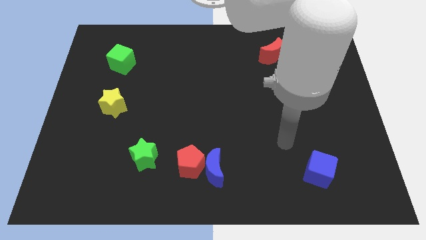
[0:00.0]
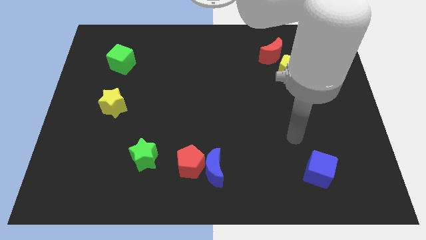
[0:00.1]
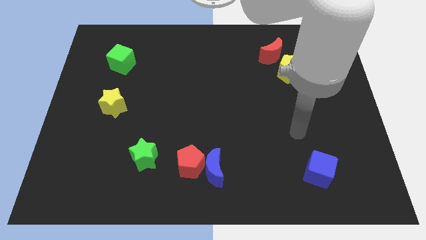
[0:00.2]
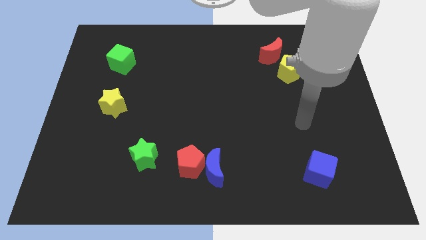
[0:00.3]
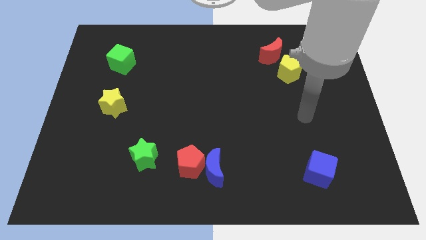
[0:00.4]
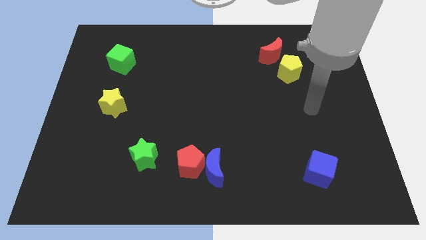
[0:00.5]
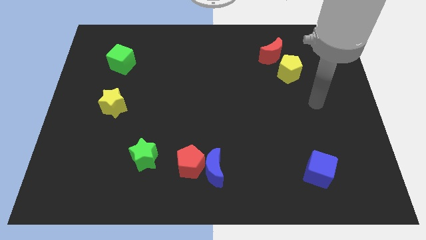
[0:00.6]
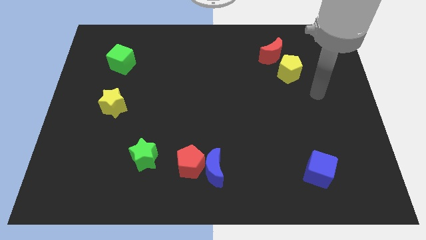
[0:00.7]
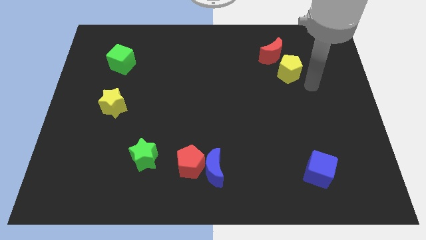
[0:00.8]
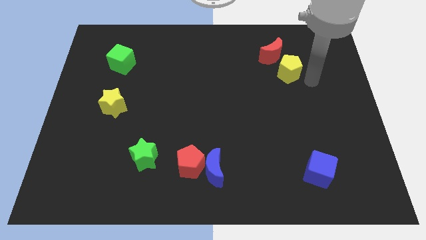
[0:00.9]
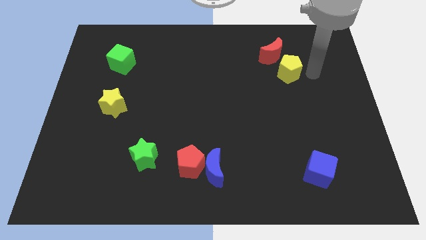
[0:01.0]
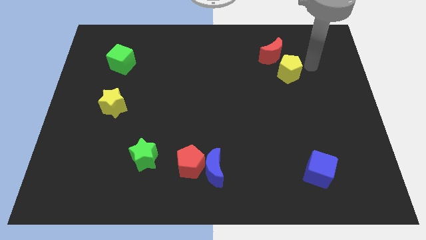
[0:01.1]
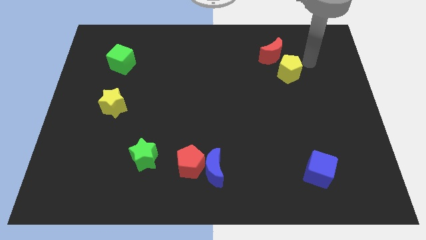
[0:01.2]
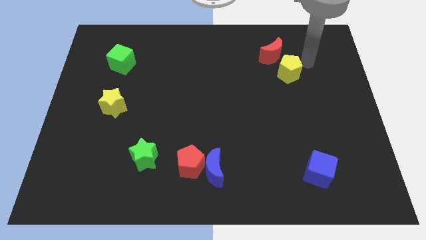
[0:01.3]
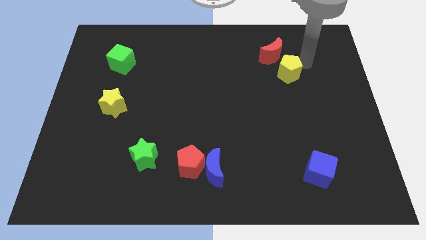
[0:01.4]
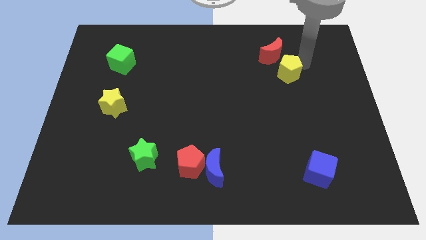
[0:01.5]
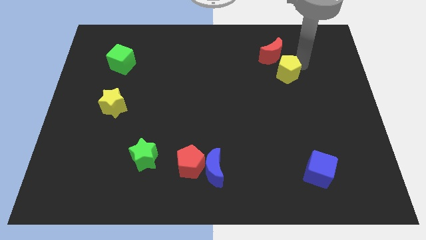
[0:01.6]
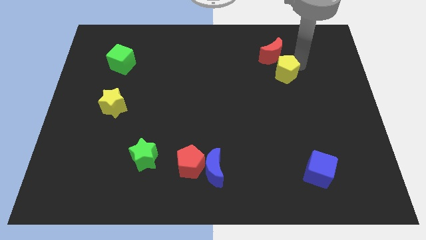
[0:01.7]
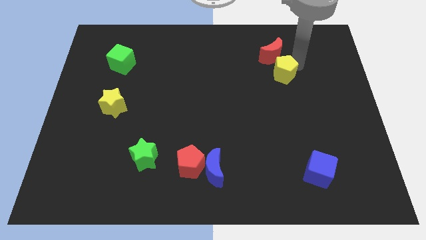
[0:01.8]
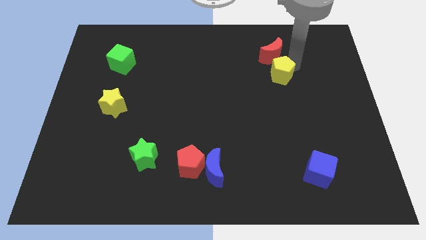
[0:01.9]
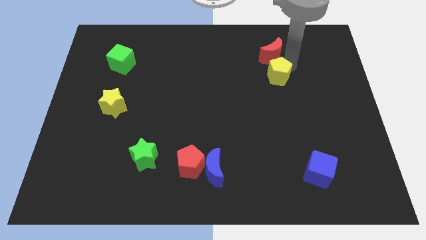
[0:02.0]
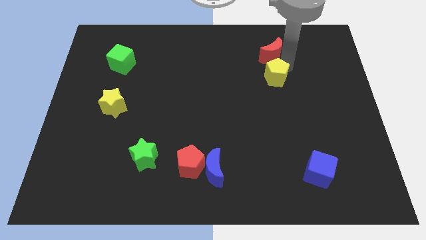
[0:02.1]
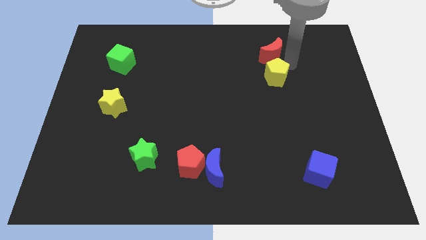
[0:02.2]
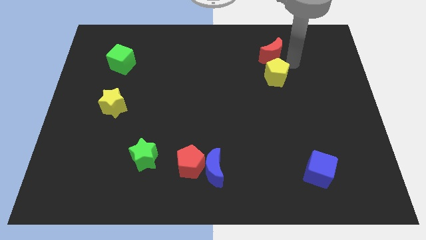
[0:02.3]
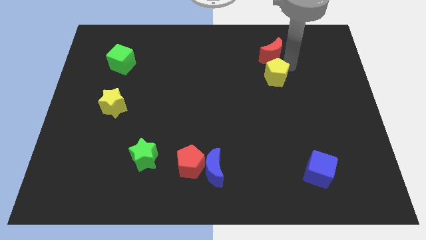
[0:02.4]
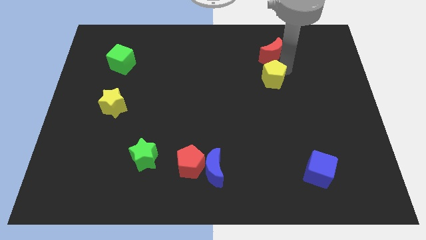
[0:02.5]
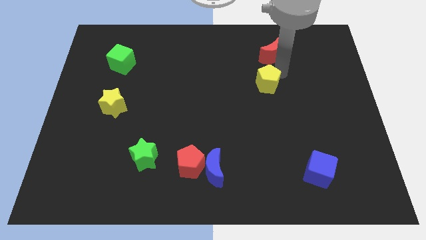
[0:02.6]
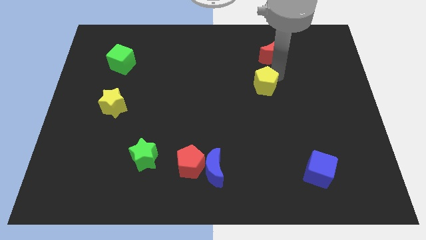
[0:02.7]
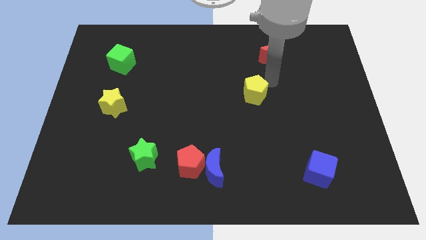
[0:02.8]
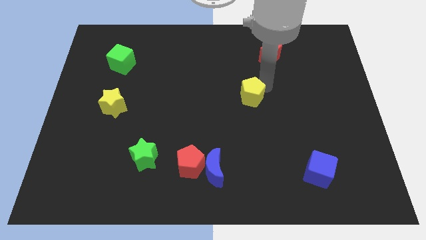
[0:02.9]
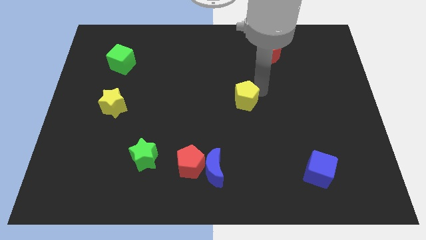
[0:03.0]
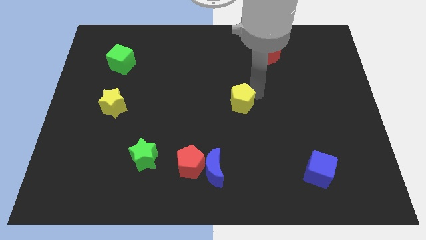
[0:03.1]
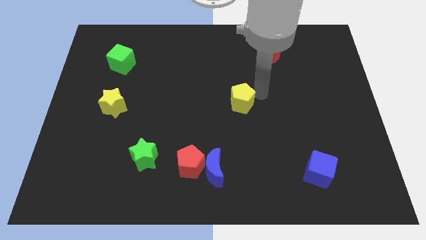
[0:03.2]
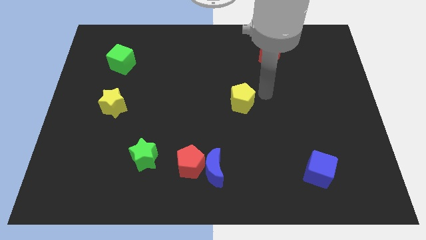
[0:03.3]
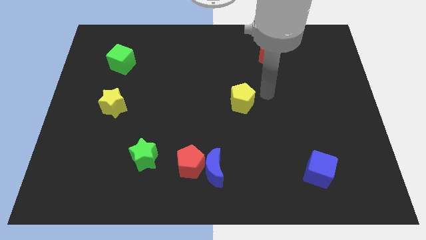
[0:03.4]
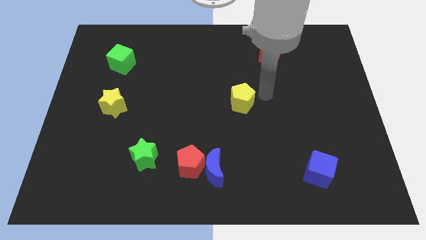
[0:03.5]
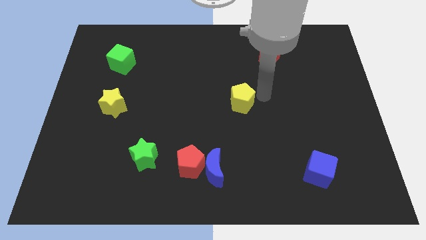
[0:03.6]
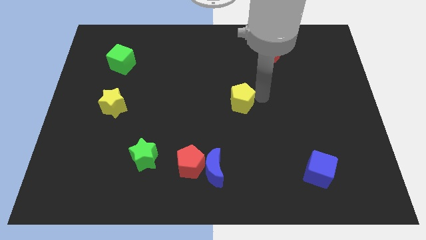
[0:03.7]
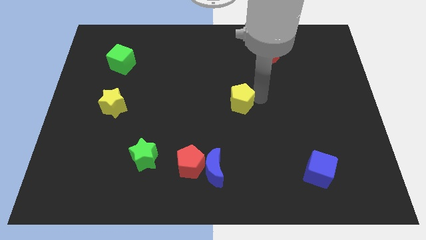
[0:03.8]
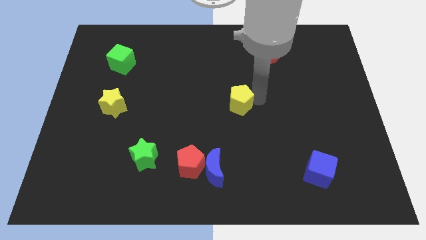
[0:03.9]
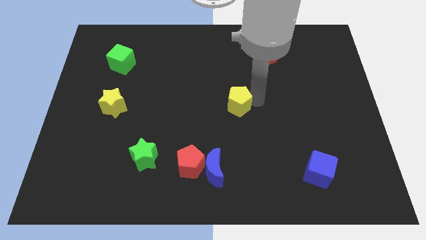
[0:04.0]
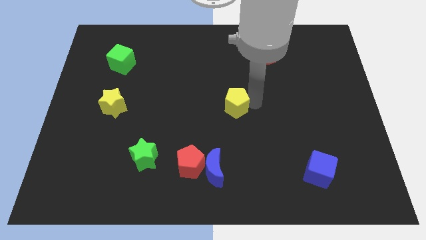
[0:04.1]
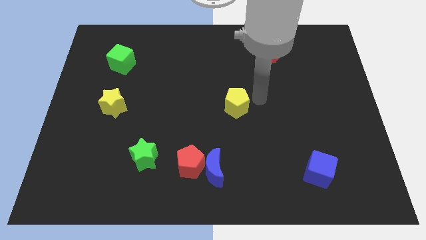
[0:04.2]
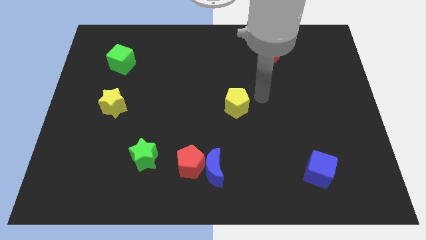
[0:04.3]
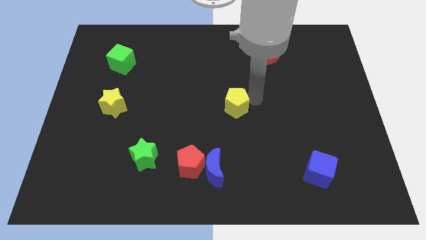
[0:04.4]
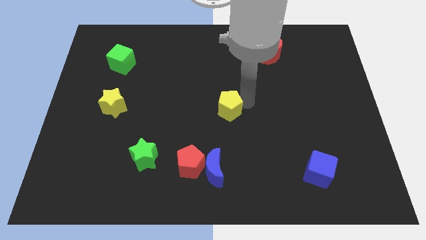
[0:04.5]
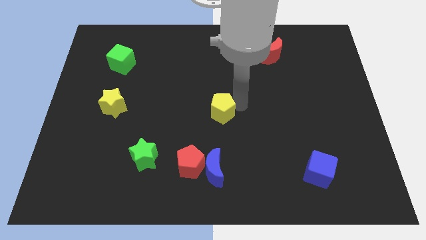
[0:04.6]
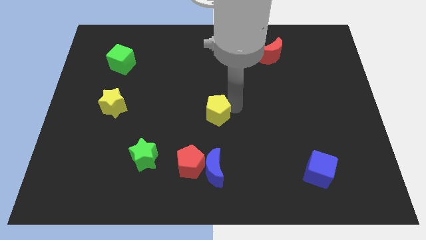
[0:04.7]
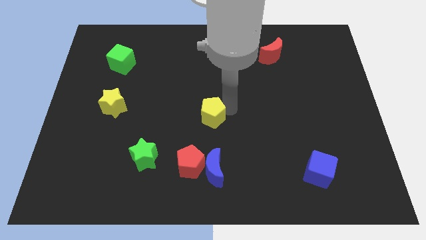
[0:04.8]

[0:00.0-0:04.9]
slide the yellow pentagon to the top of the red pentagon

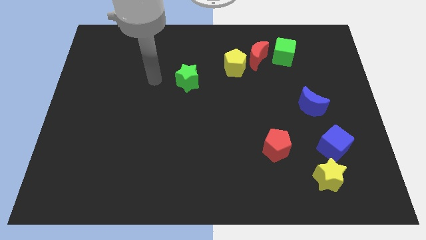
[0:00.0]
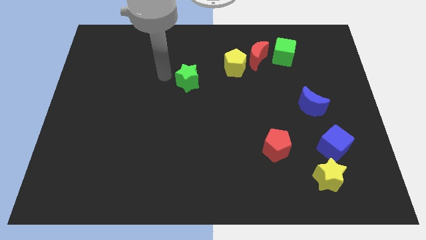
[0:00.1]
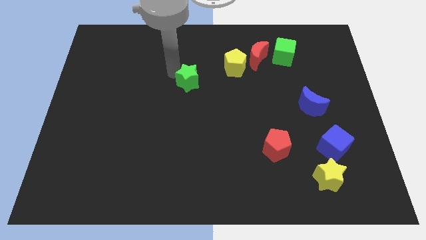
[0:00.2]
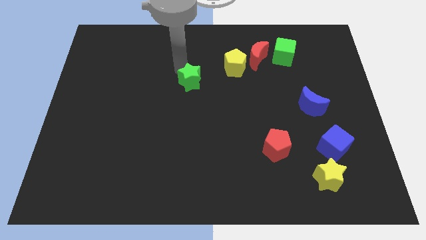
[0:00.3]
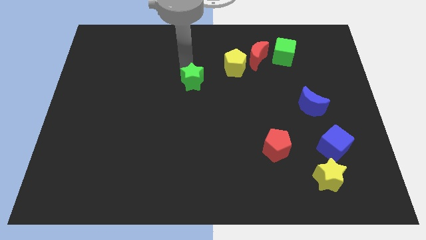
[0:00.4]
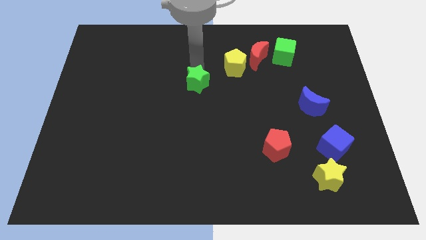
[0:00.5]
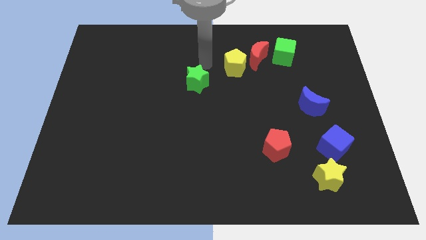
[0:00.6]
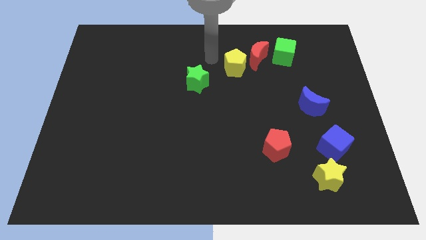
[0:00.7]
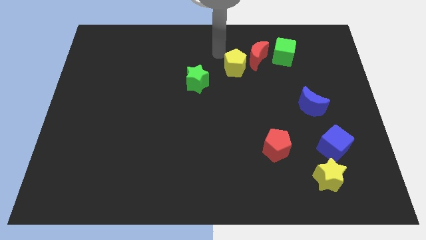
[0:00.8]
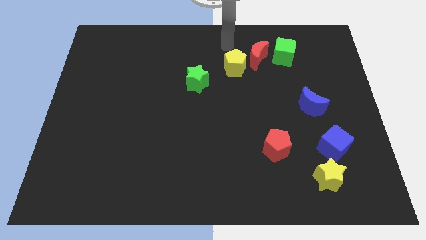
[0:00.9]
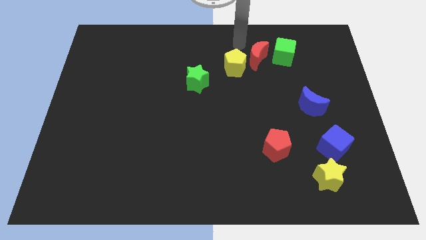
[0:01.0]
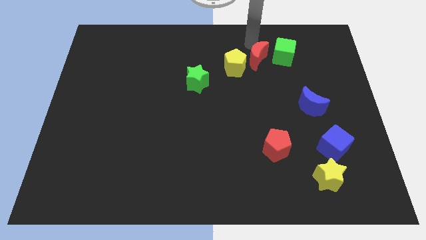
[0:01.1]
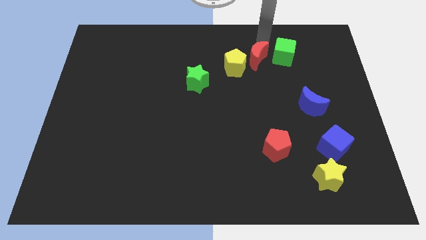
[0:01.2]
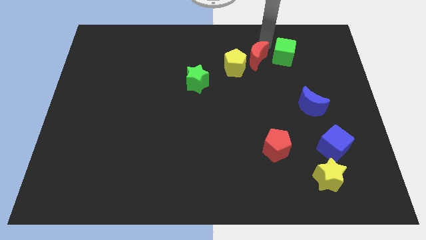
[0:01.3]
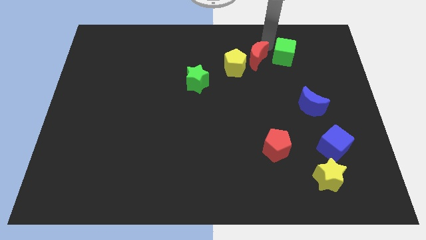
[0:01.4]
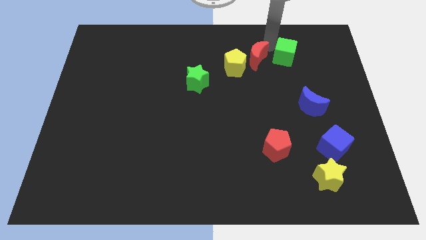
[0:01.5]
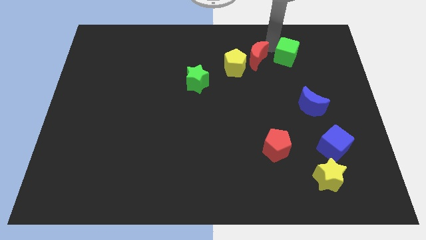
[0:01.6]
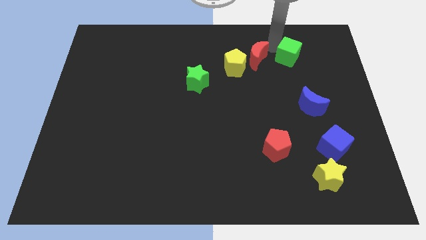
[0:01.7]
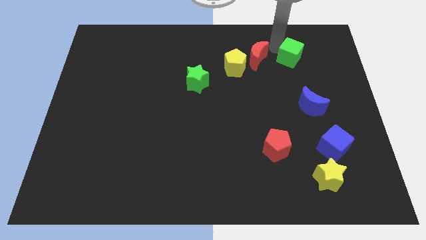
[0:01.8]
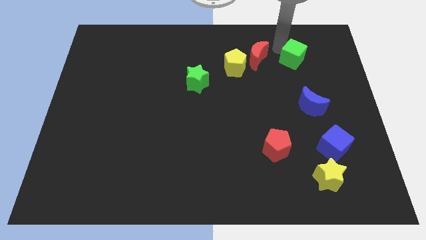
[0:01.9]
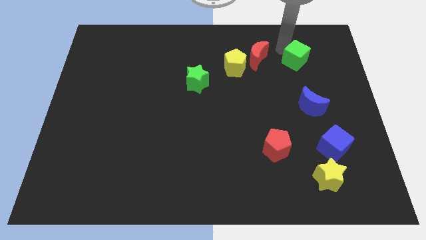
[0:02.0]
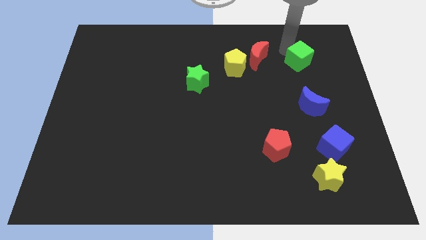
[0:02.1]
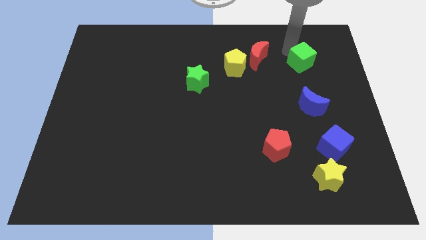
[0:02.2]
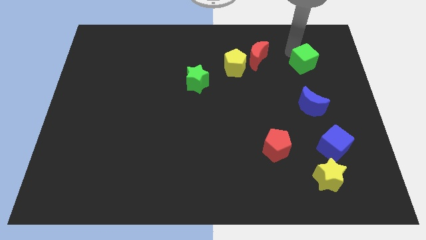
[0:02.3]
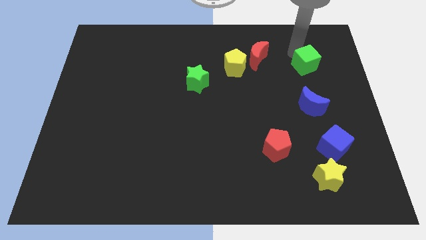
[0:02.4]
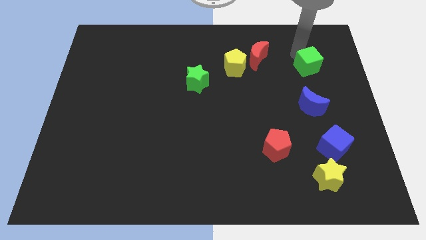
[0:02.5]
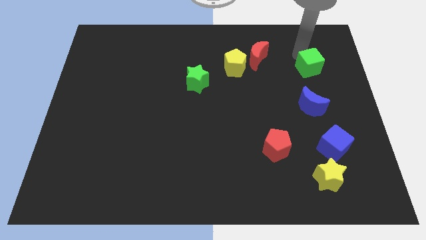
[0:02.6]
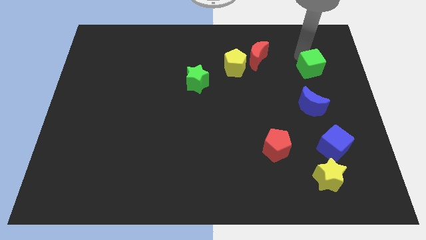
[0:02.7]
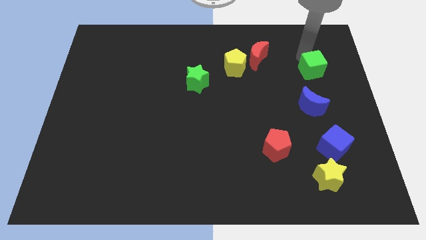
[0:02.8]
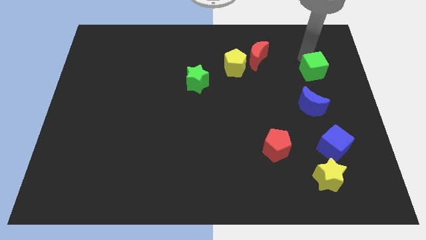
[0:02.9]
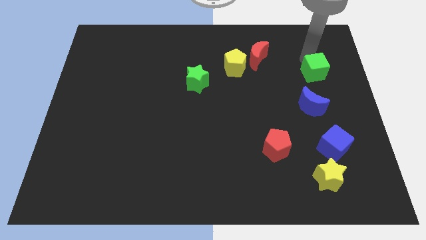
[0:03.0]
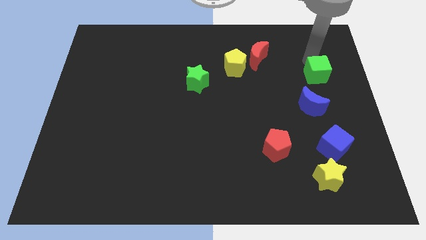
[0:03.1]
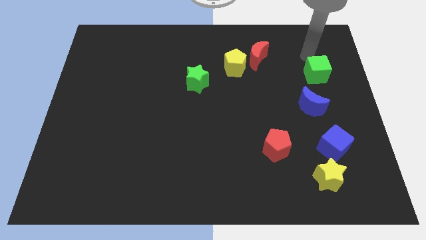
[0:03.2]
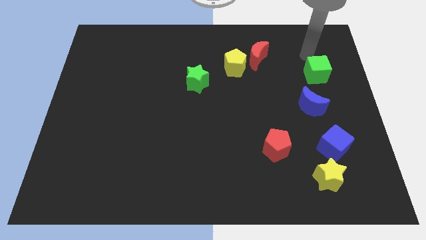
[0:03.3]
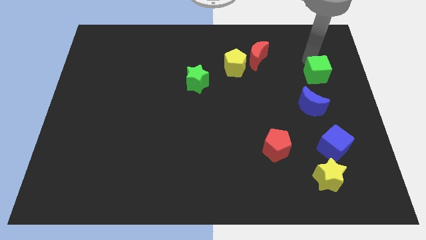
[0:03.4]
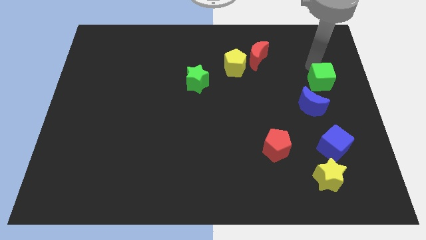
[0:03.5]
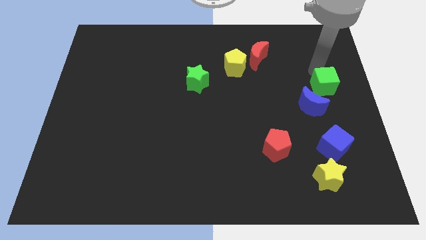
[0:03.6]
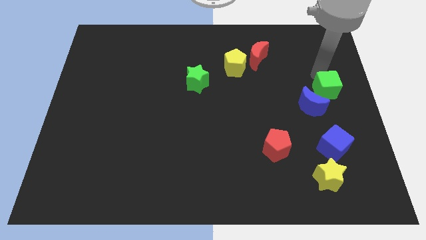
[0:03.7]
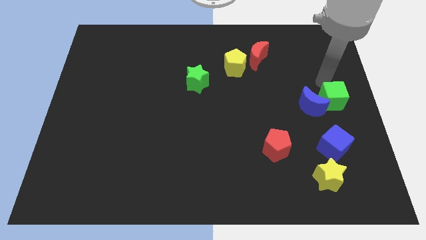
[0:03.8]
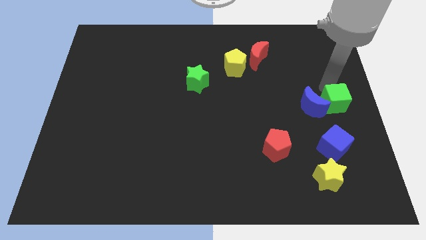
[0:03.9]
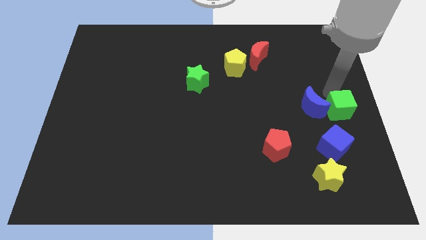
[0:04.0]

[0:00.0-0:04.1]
put the green cube diagonally down and to the right of the blue moon
